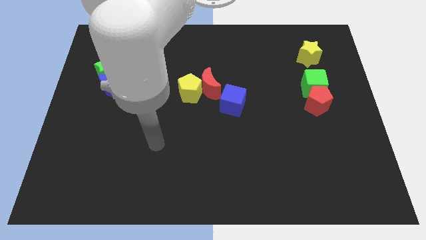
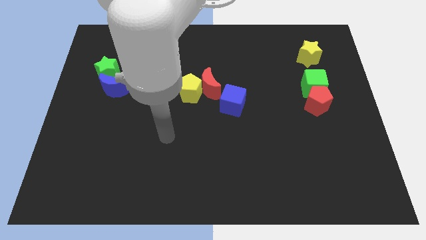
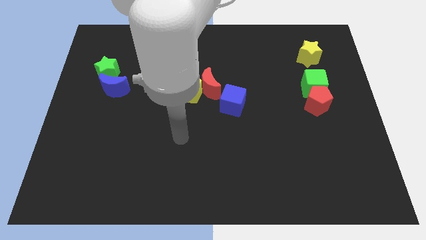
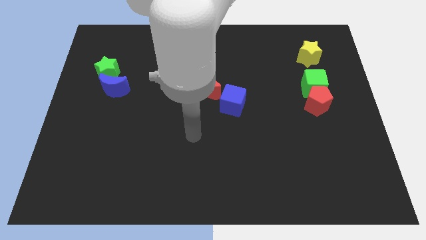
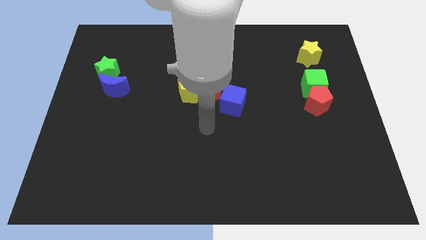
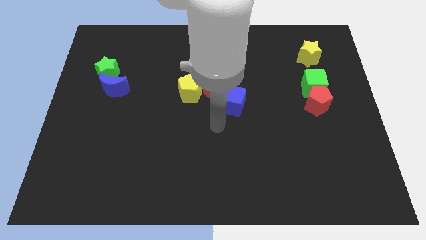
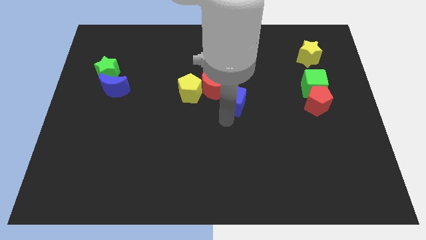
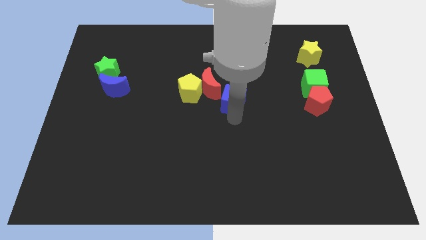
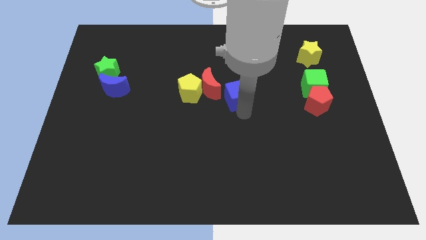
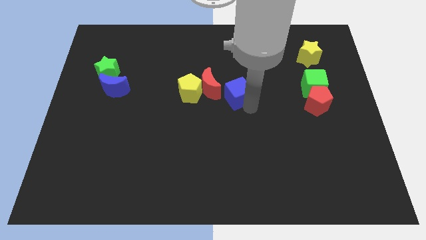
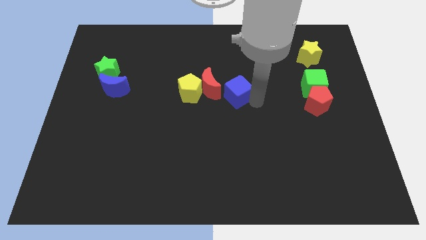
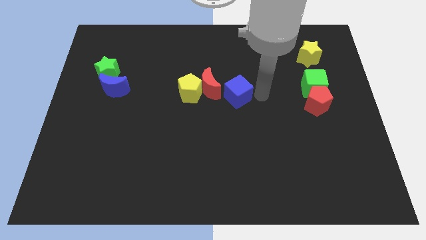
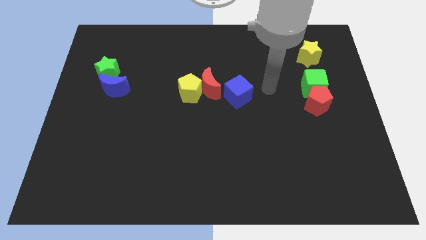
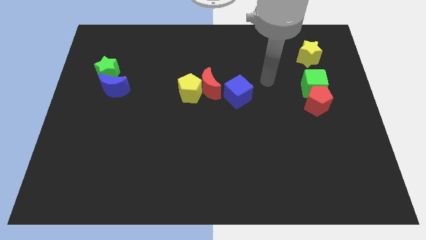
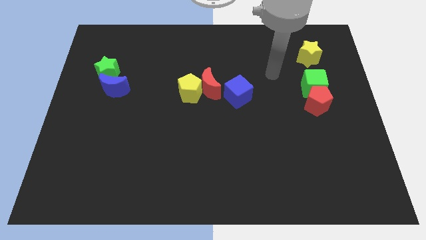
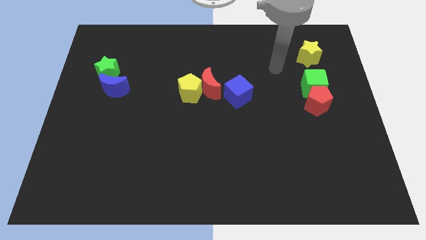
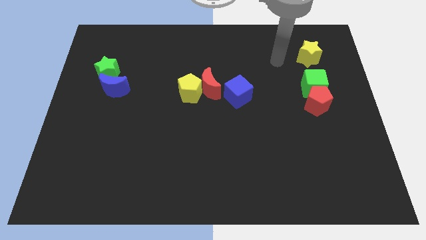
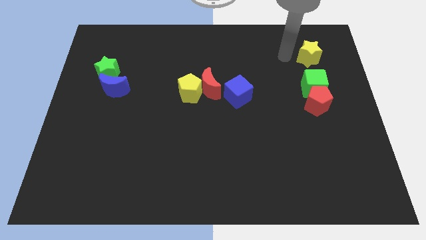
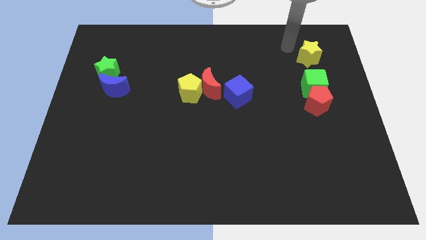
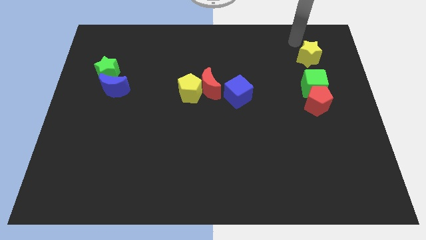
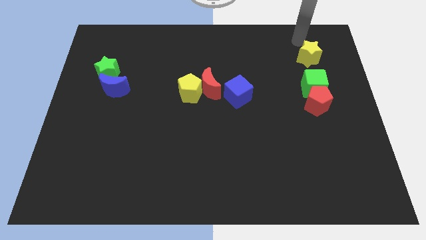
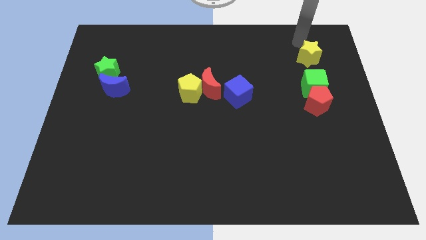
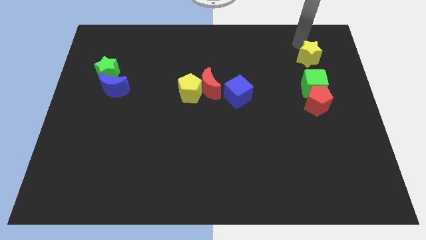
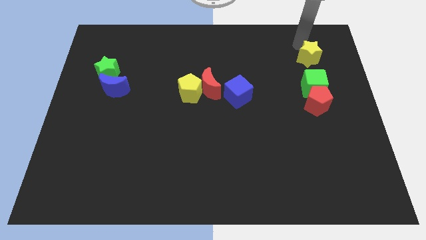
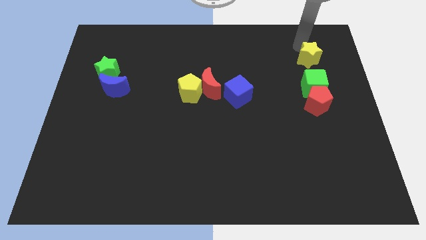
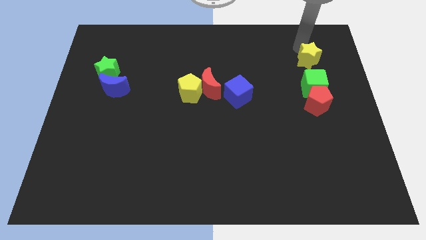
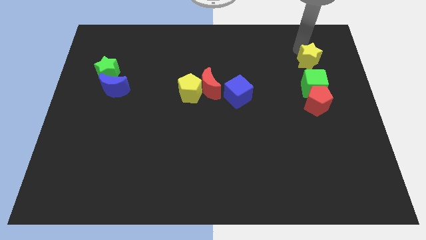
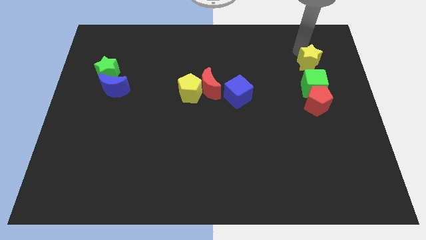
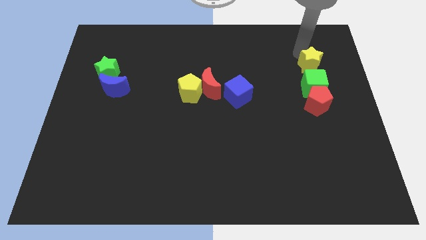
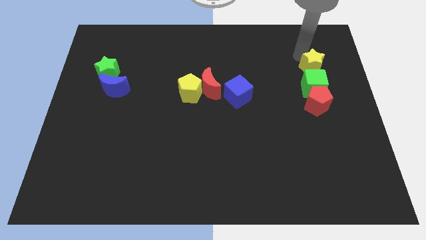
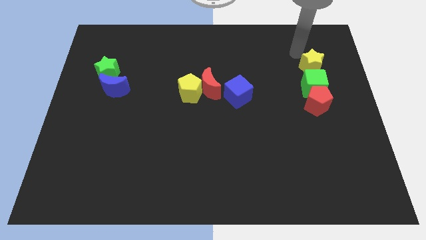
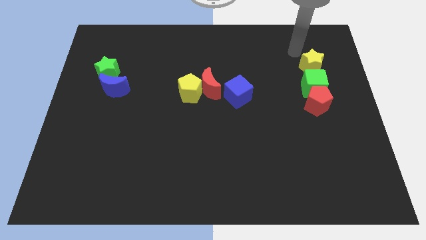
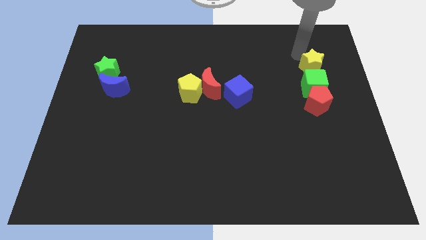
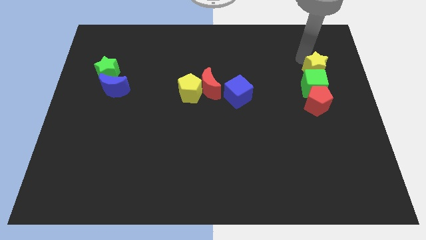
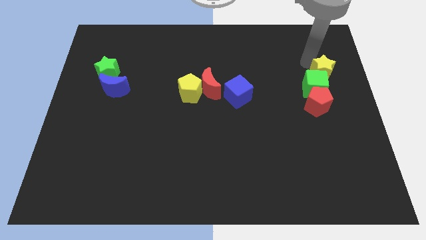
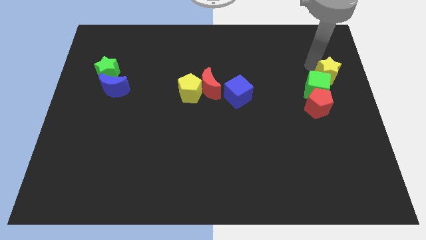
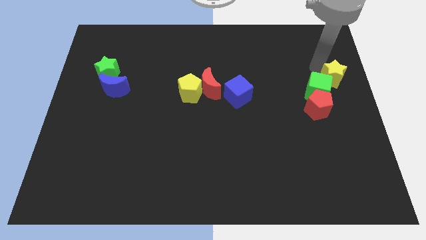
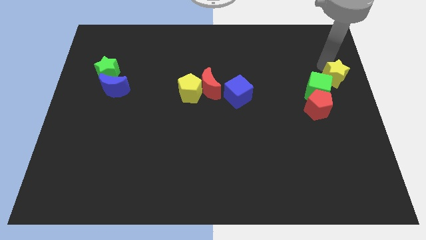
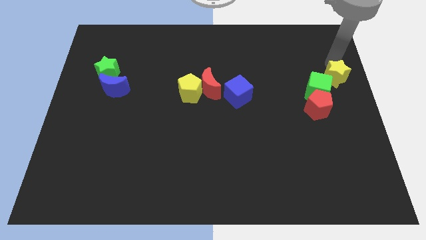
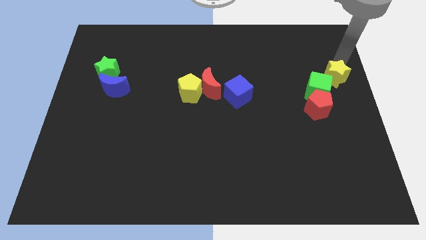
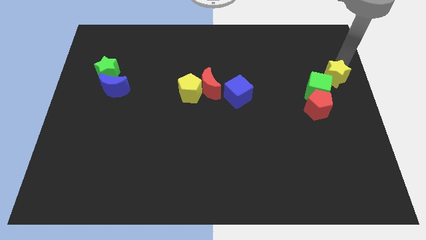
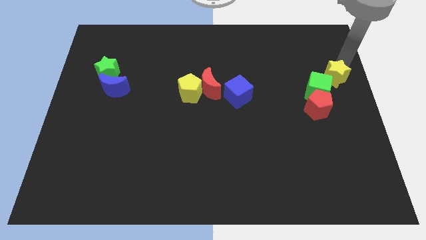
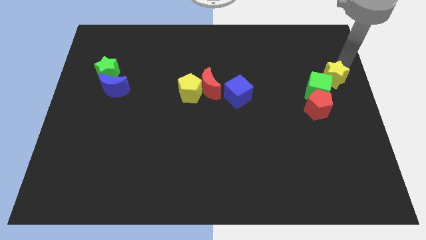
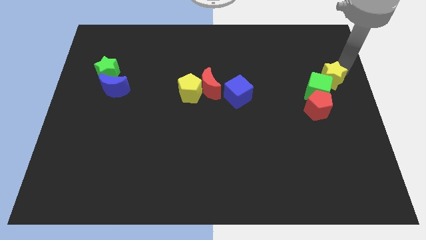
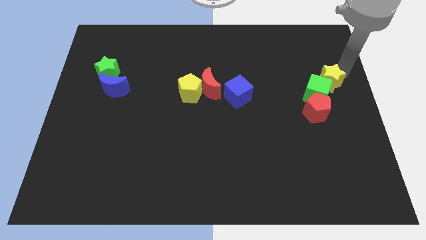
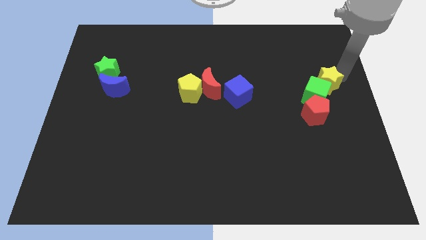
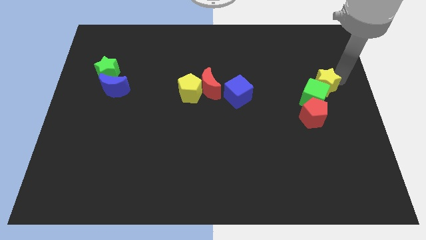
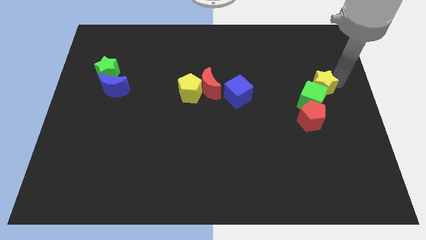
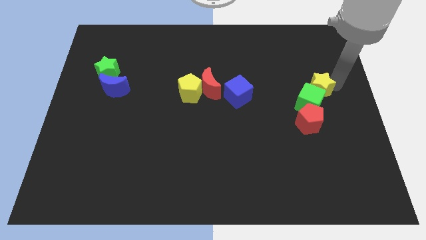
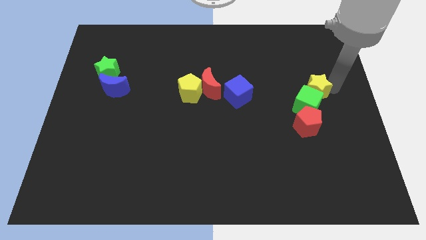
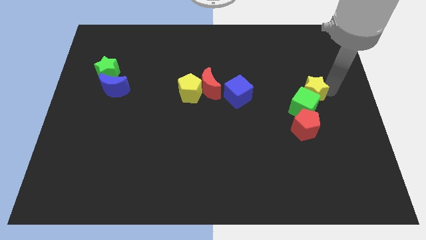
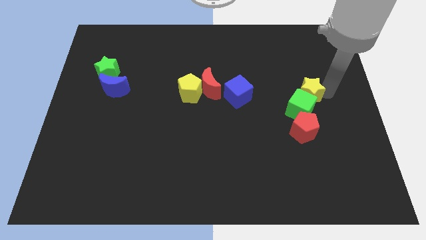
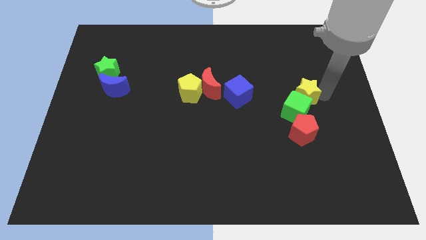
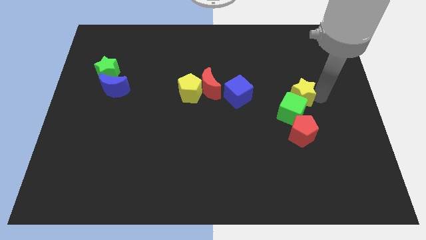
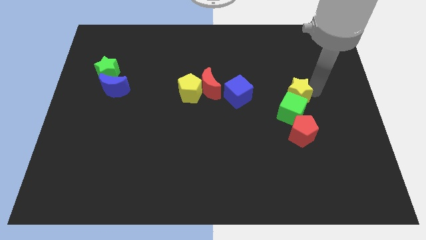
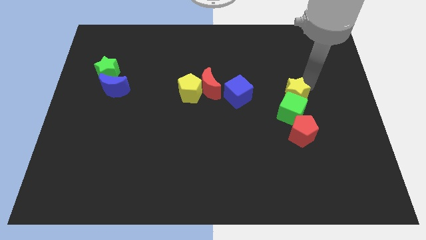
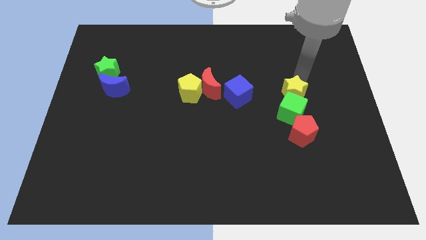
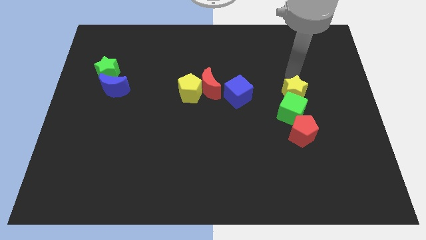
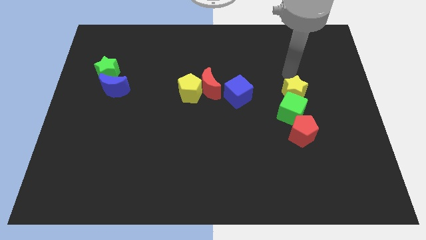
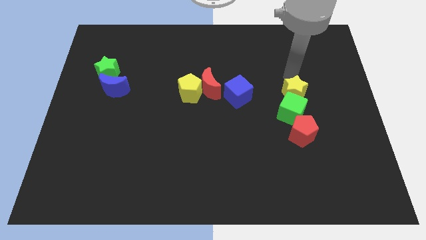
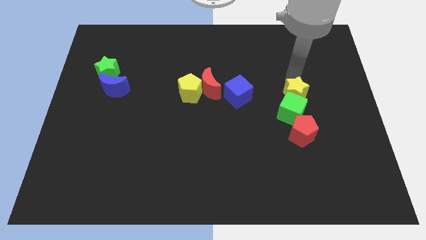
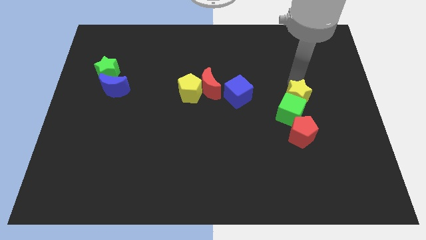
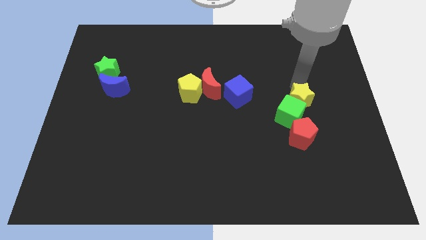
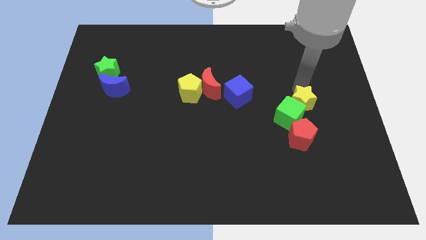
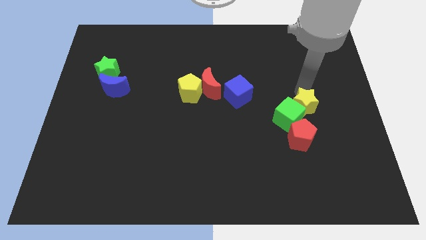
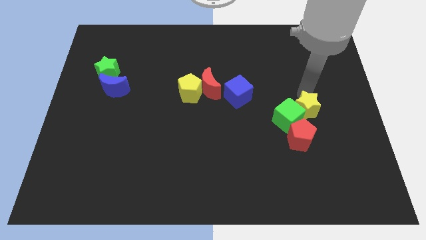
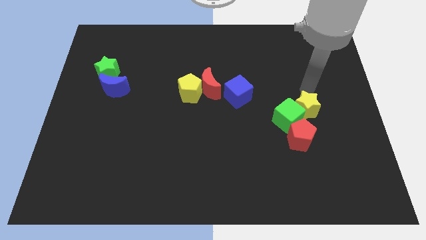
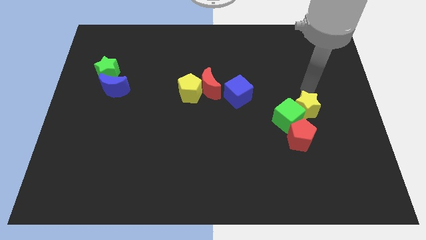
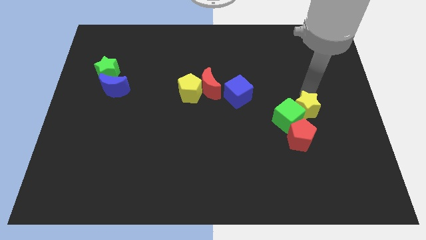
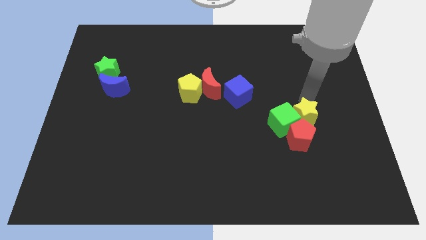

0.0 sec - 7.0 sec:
slide the yellow star next to the red pentagon

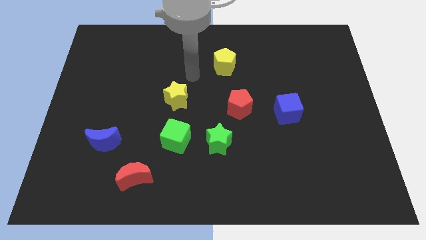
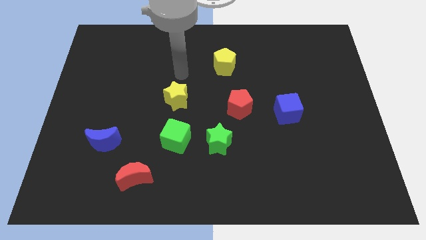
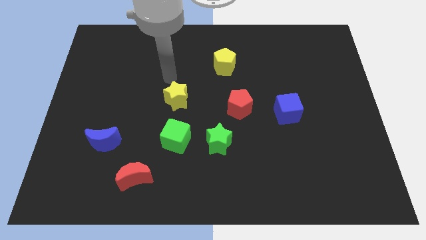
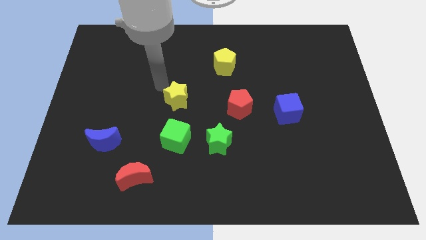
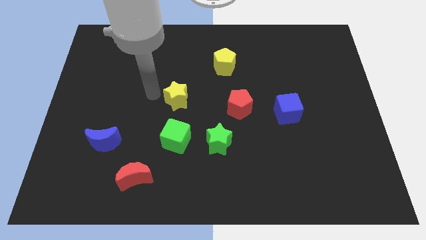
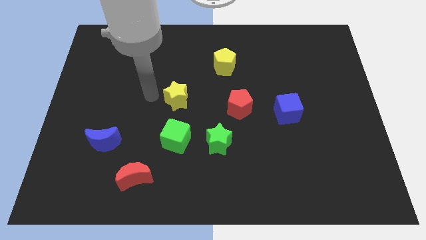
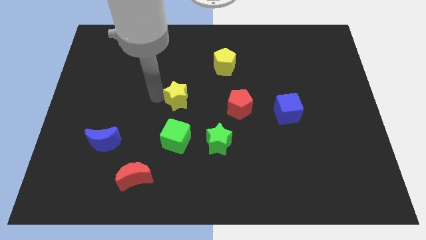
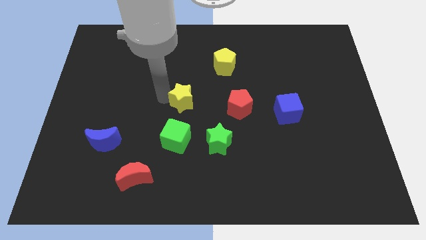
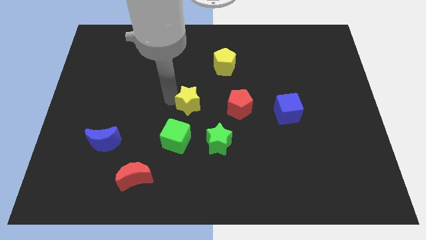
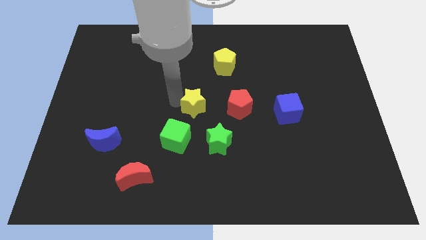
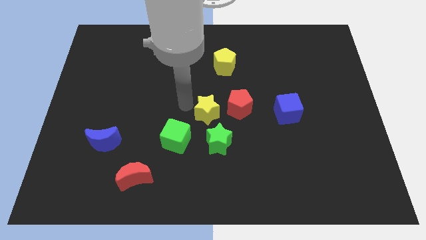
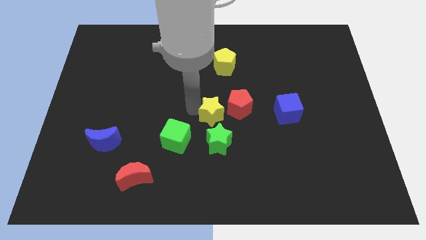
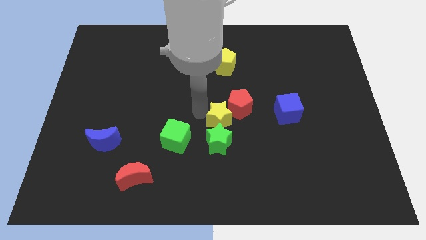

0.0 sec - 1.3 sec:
push the yellow star to the red pentagon
